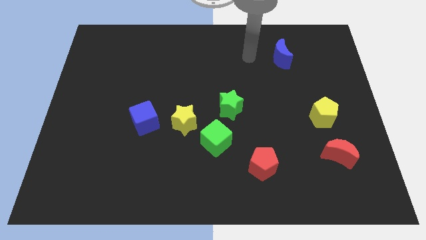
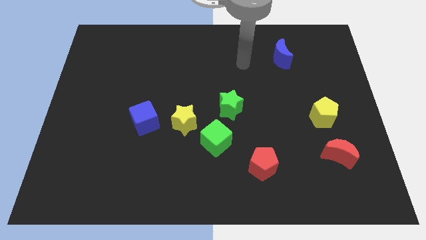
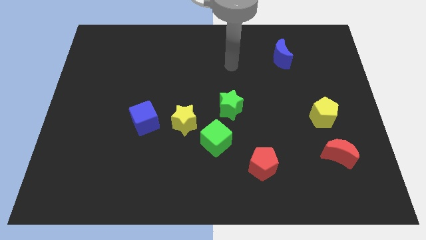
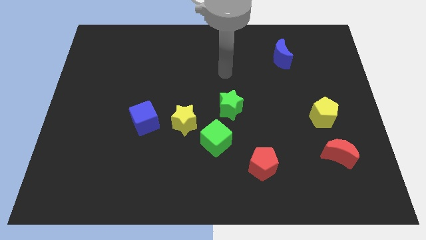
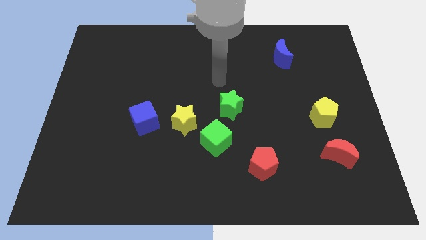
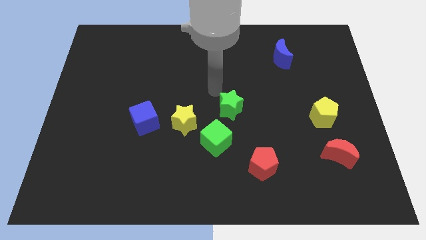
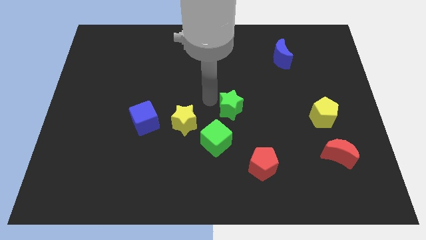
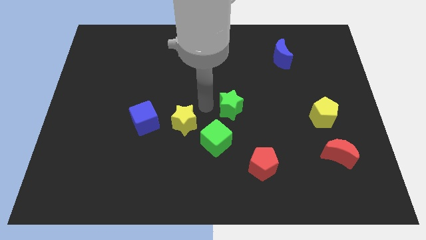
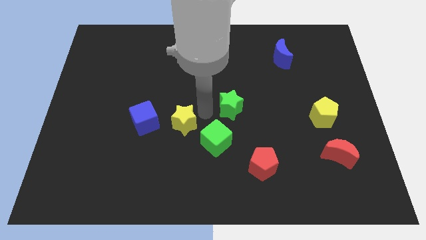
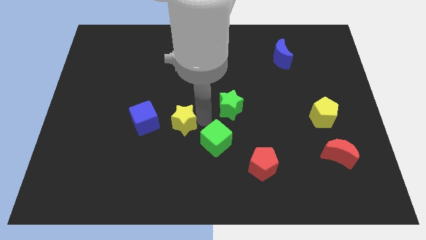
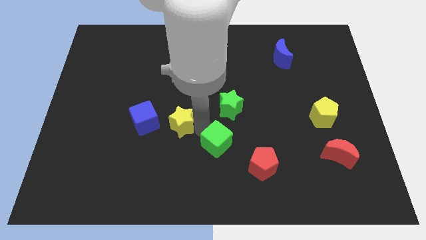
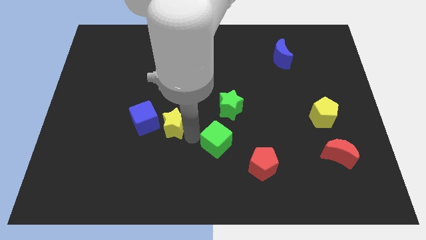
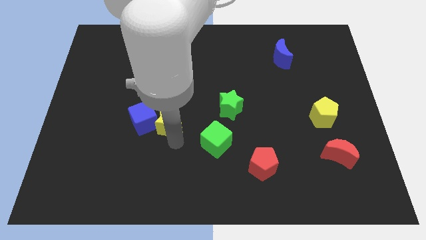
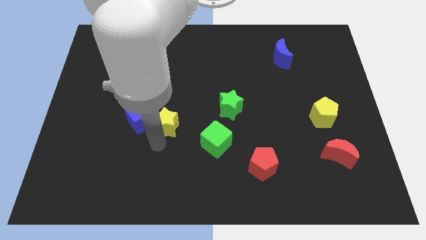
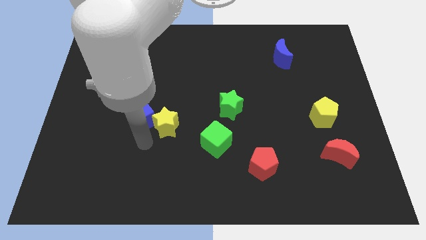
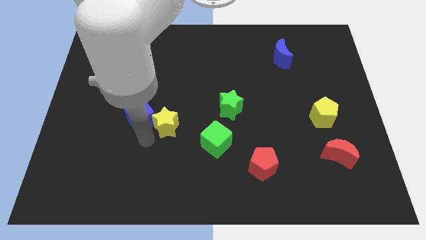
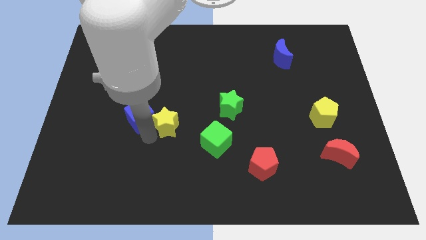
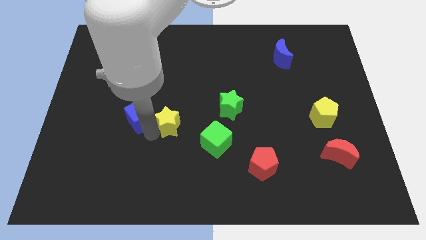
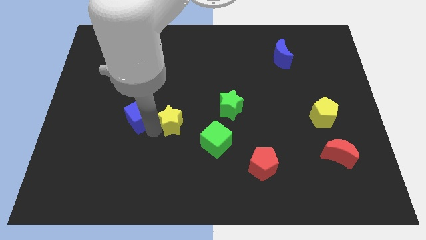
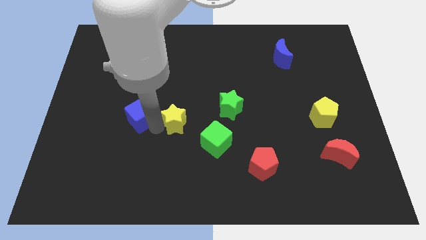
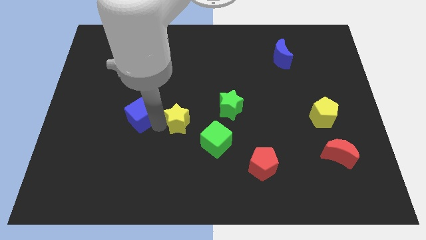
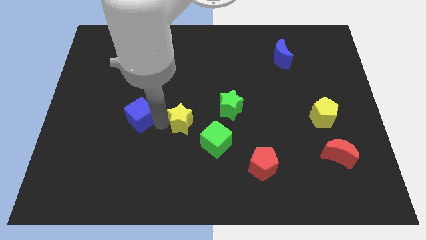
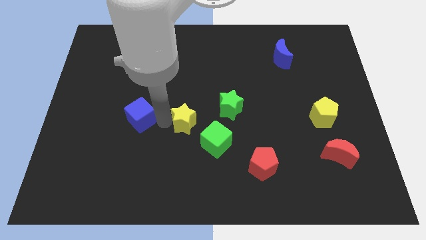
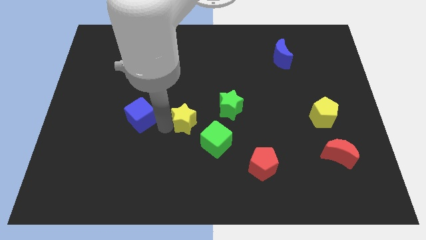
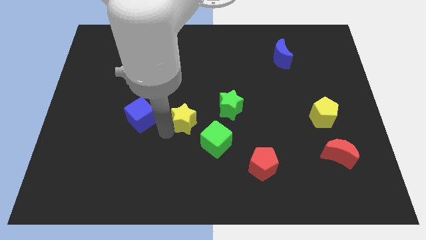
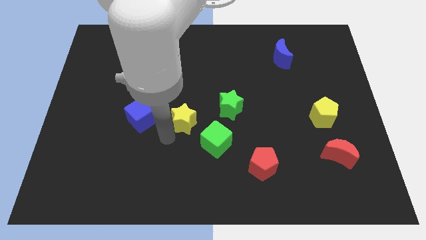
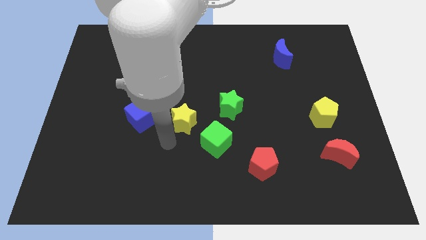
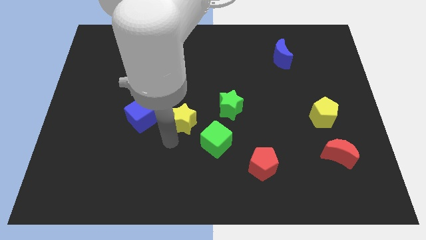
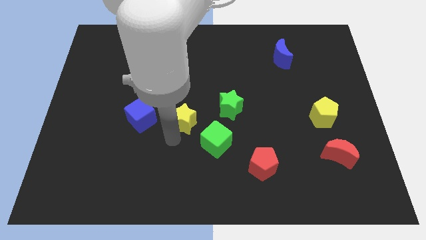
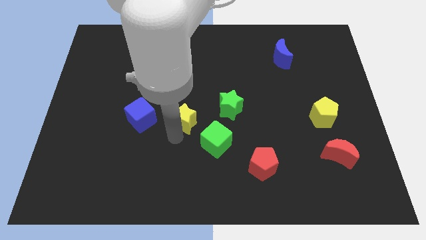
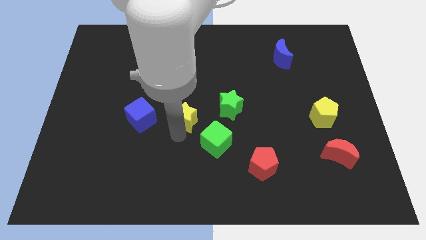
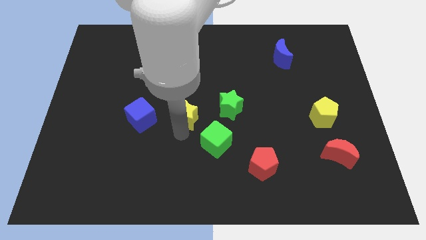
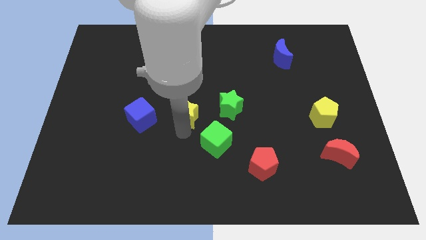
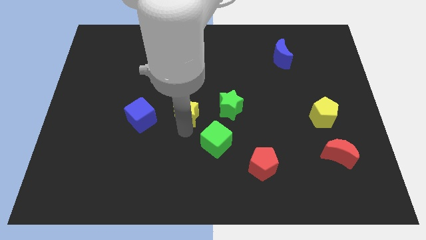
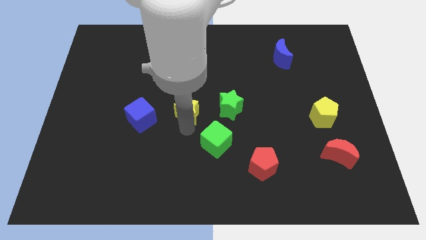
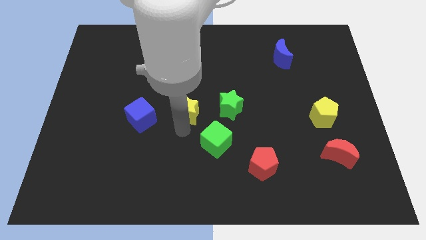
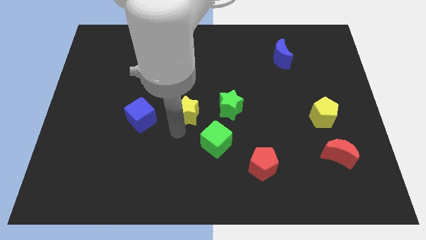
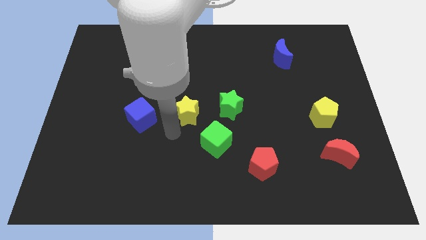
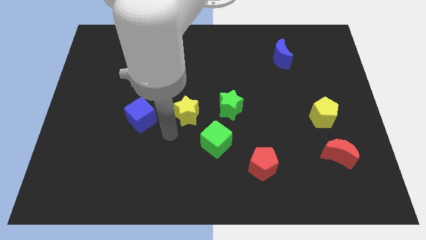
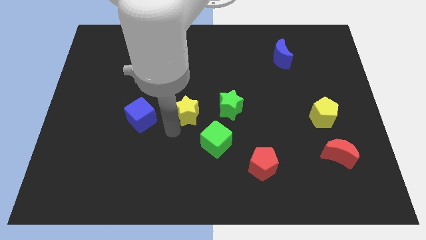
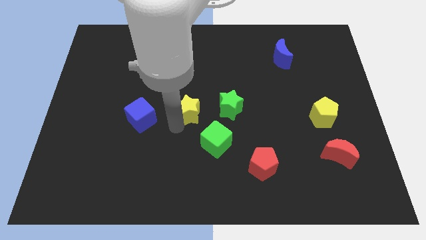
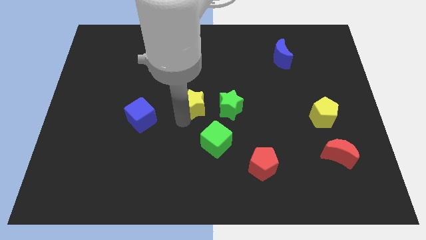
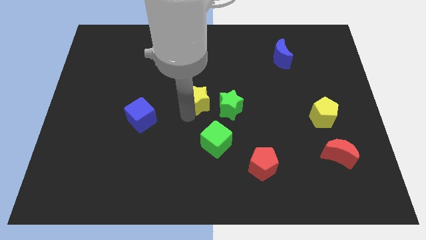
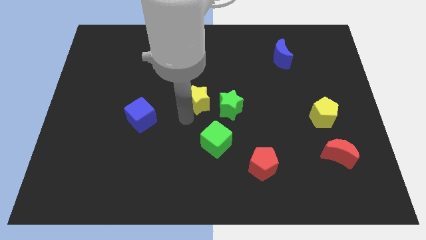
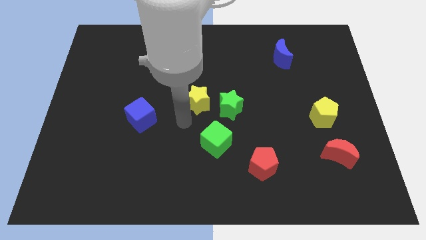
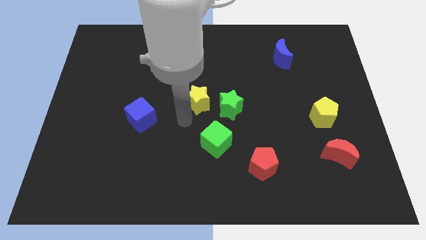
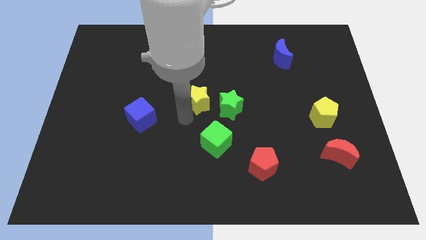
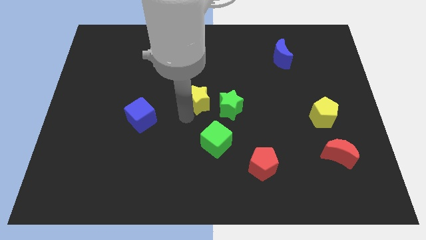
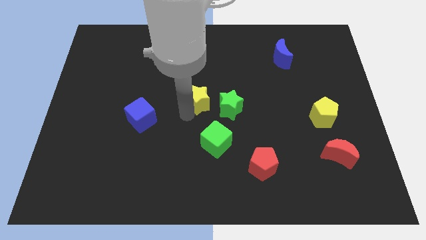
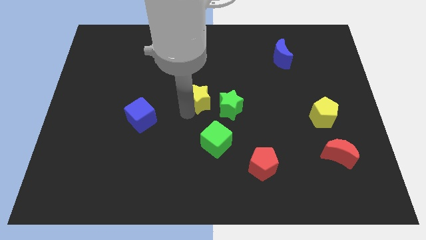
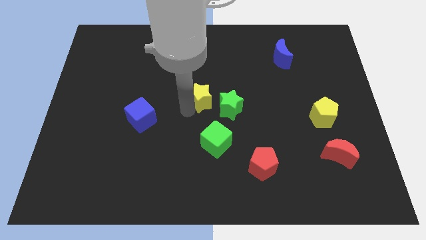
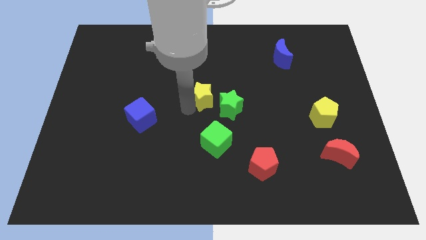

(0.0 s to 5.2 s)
move the yellow star away from the green cube and blue cube

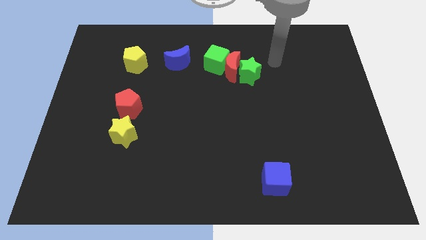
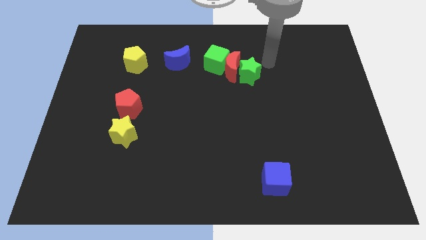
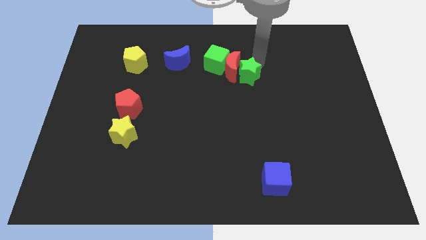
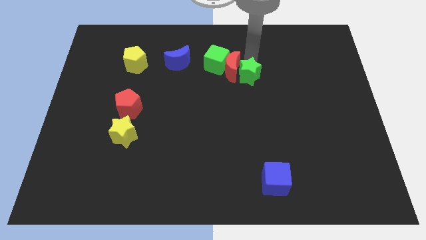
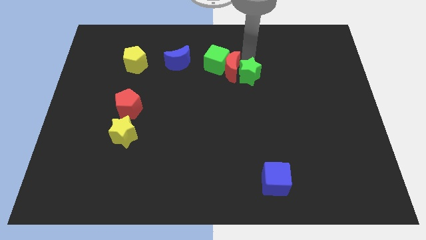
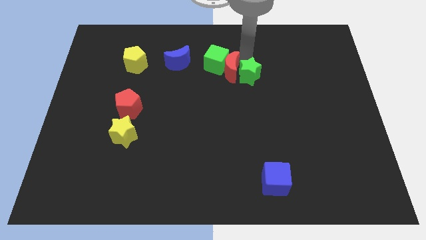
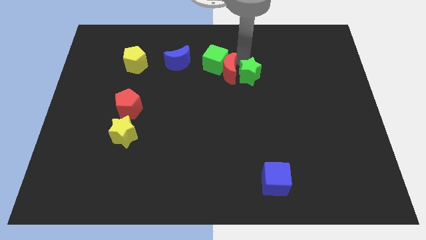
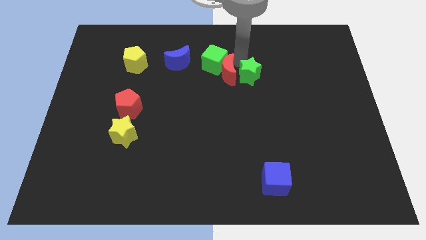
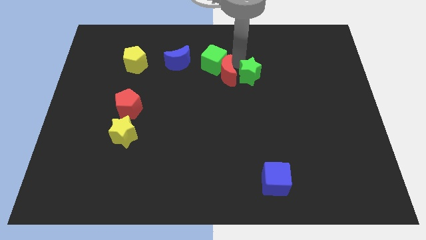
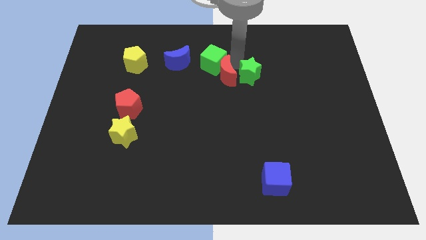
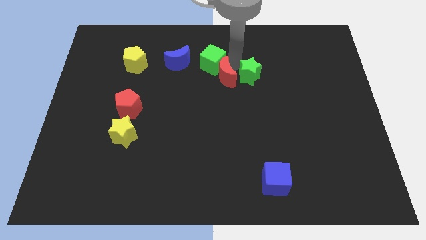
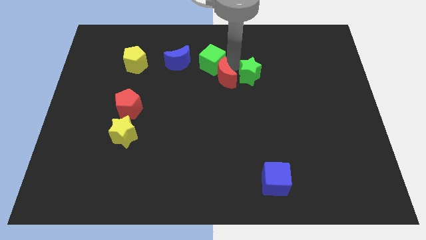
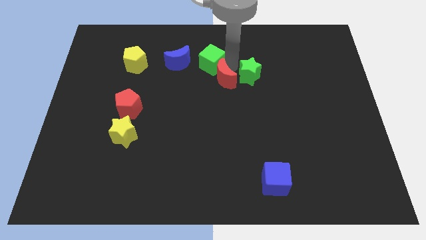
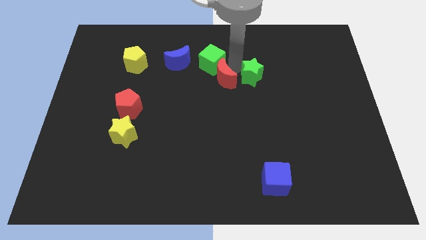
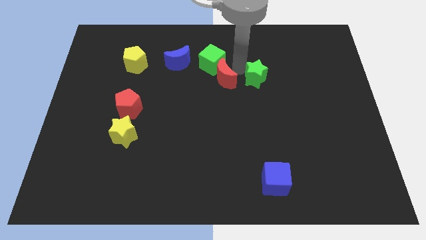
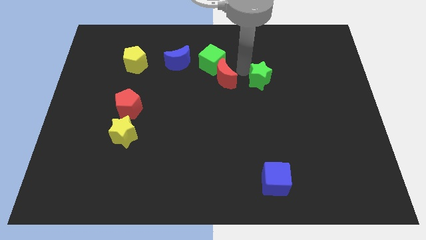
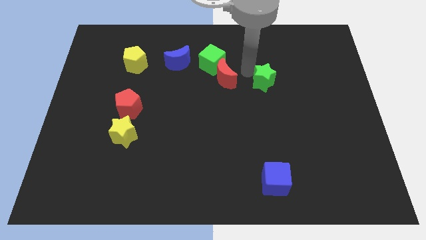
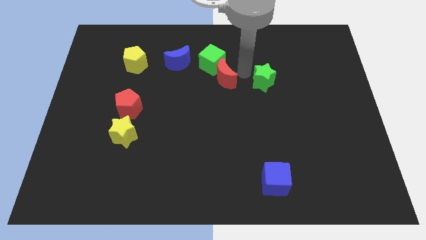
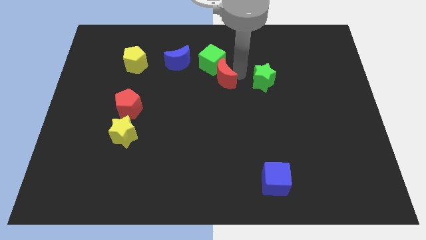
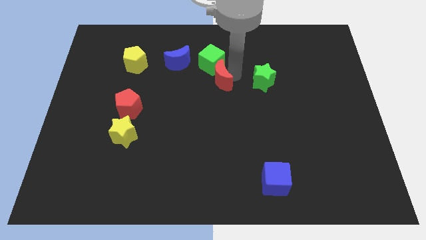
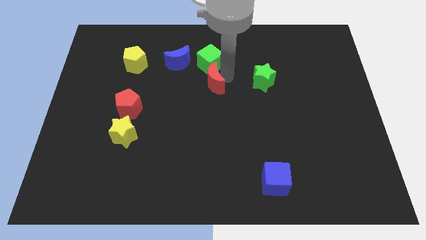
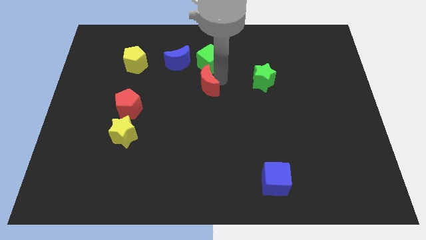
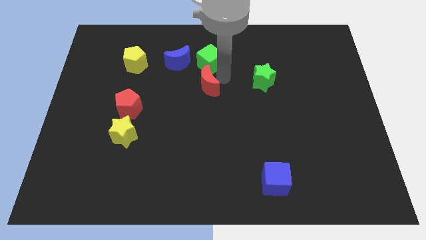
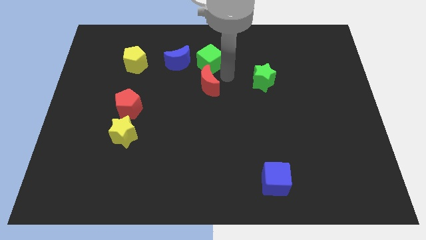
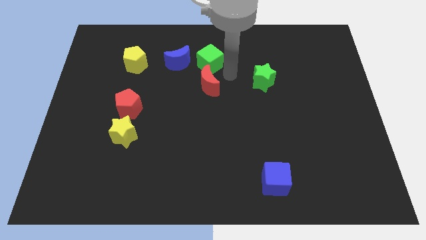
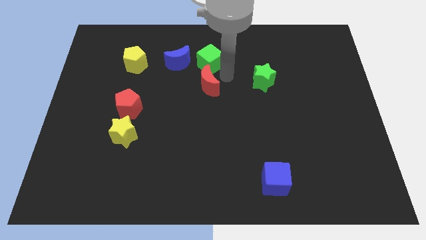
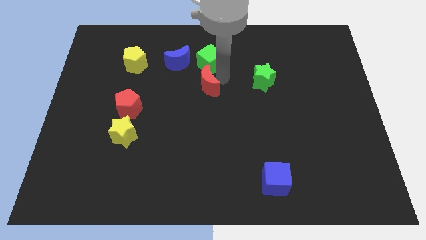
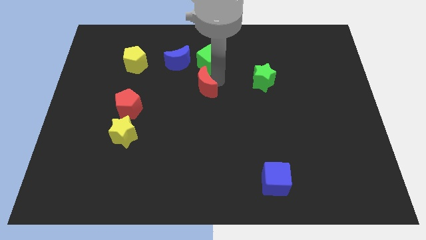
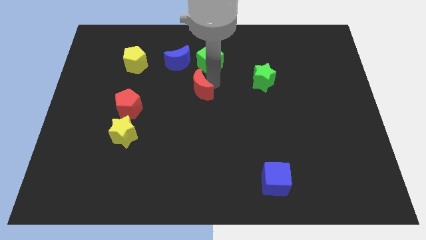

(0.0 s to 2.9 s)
separate the red moon from the green cube and green star

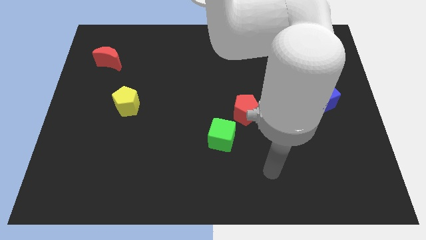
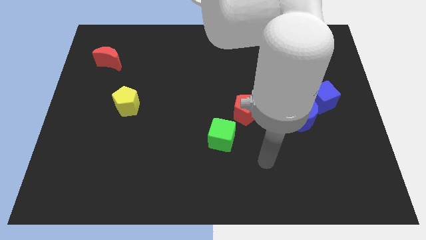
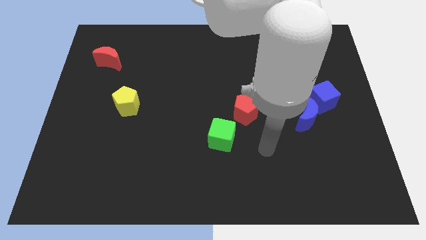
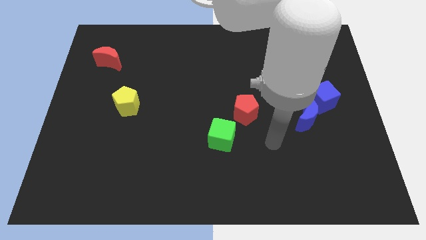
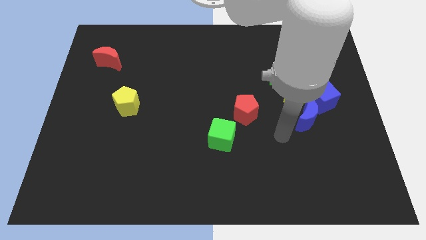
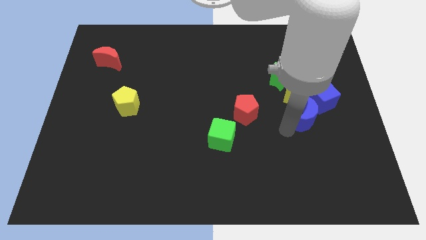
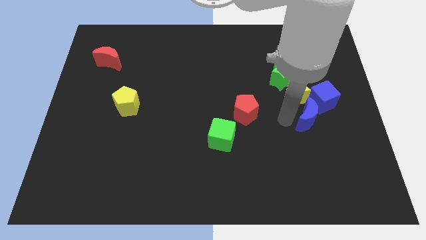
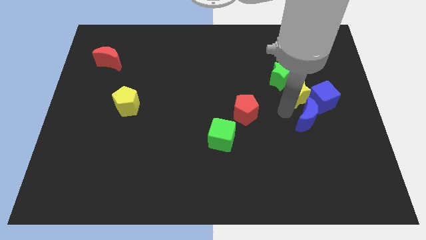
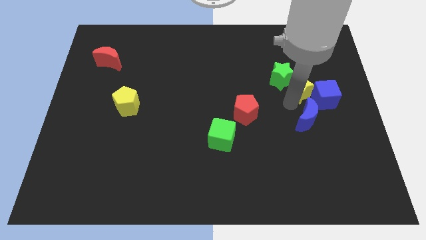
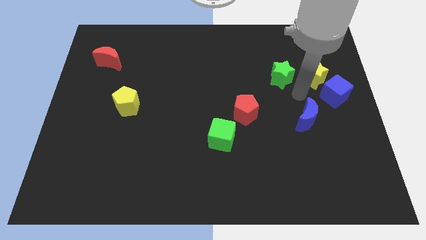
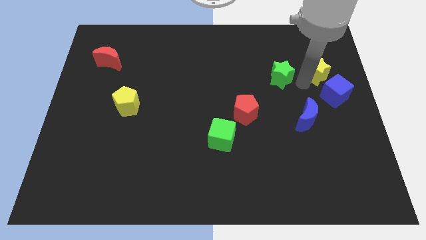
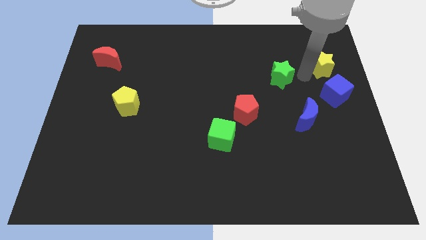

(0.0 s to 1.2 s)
move the green star away from the yellow star
